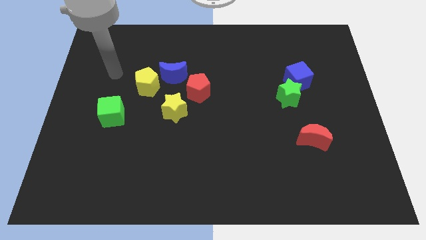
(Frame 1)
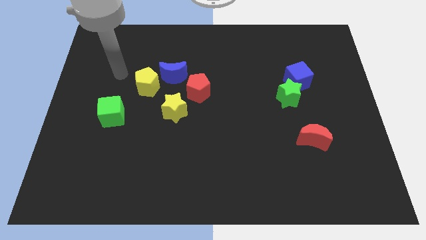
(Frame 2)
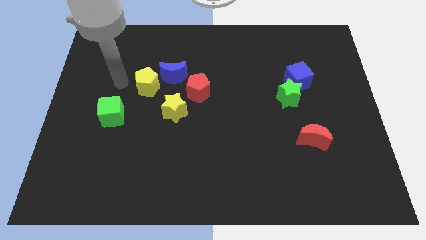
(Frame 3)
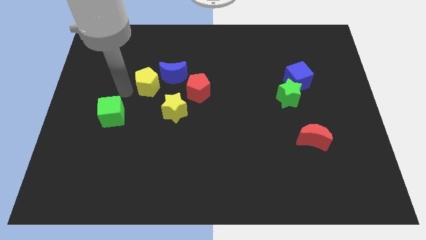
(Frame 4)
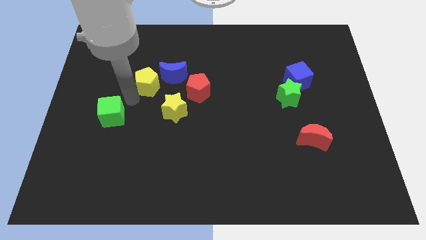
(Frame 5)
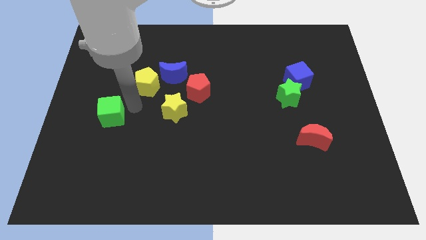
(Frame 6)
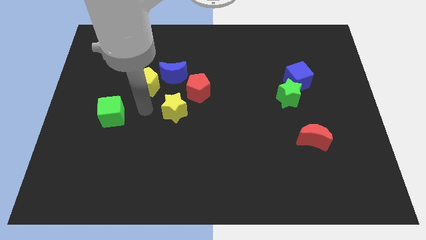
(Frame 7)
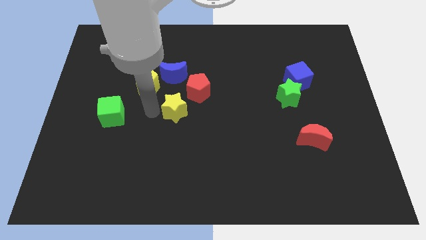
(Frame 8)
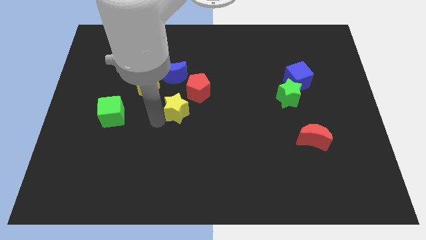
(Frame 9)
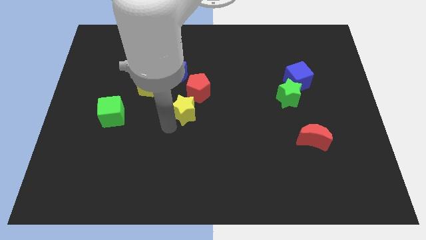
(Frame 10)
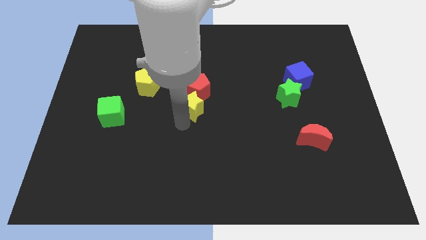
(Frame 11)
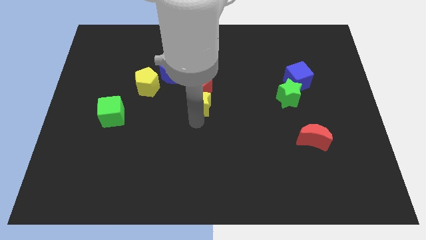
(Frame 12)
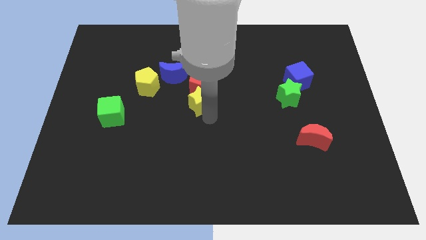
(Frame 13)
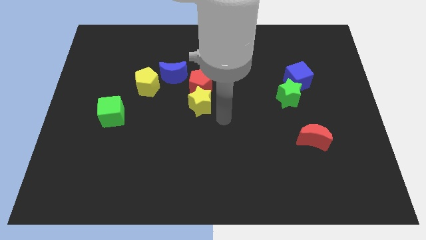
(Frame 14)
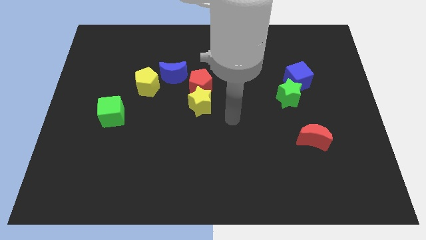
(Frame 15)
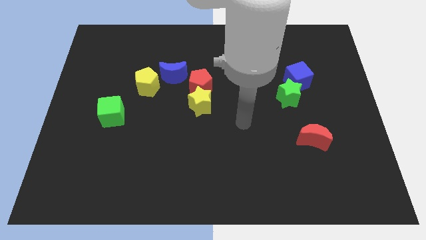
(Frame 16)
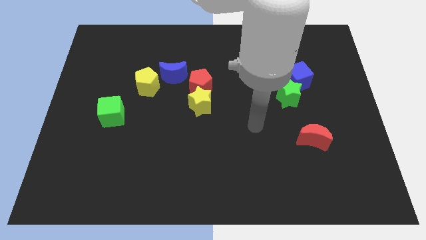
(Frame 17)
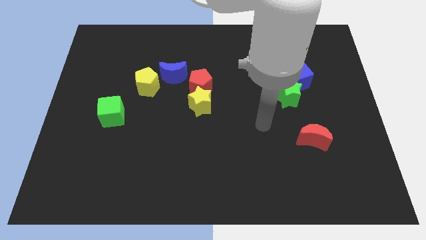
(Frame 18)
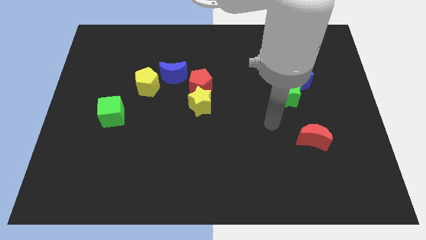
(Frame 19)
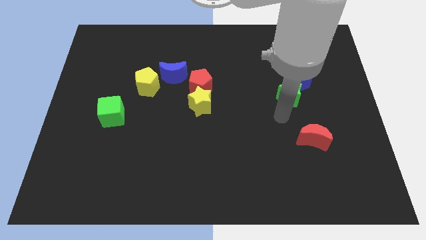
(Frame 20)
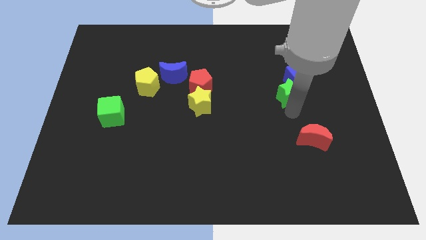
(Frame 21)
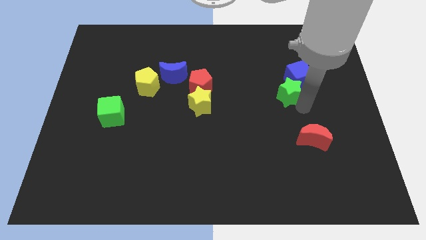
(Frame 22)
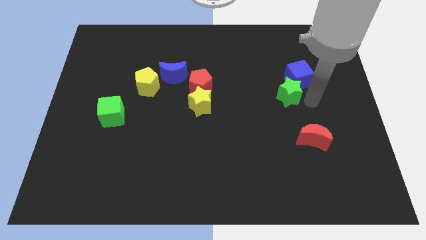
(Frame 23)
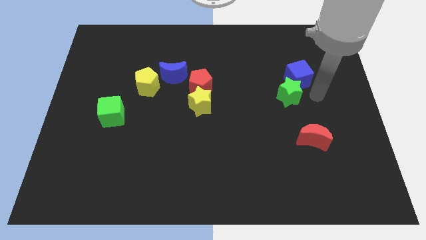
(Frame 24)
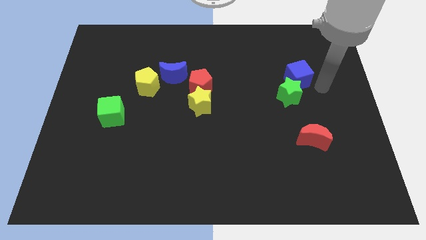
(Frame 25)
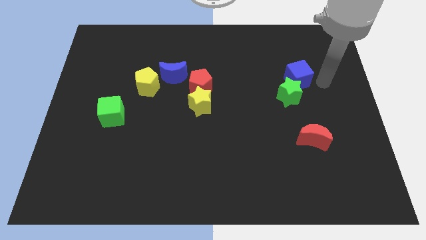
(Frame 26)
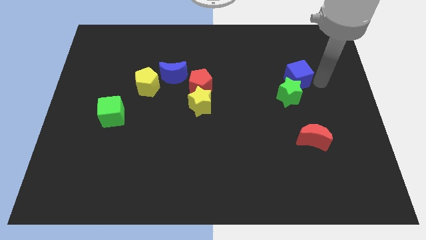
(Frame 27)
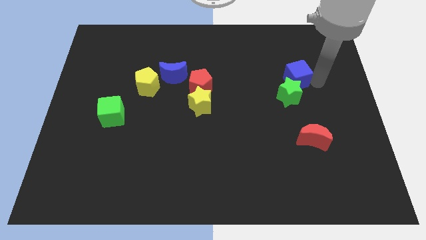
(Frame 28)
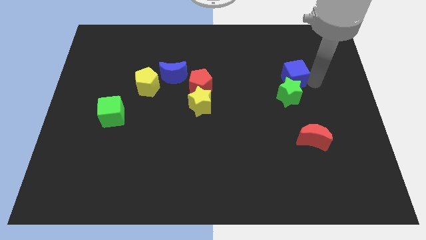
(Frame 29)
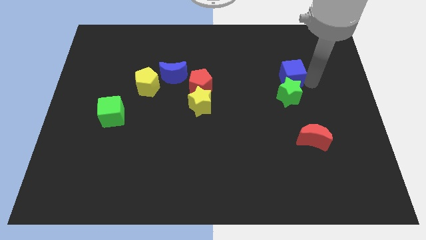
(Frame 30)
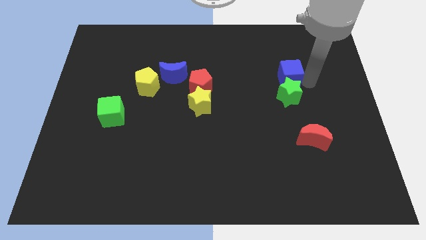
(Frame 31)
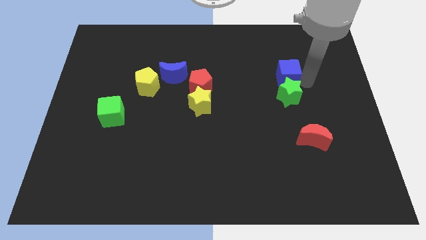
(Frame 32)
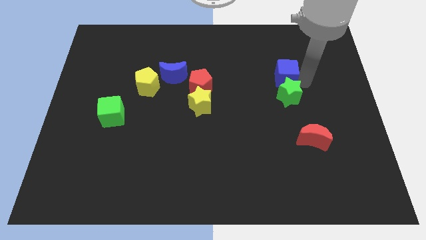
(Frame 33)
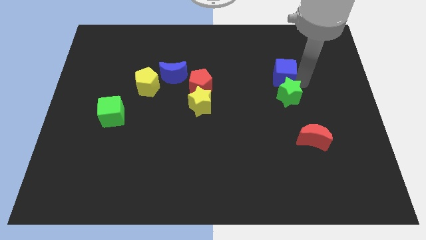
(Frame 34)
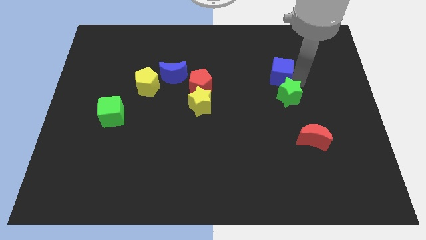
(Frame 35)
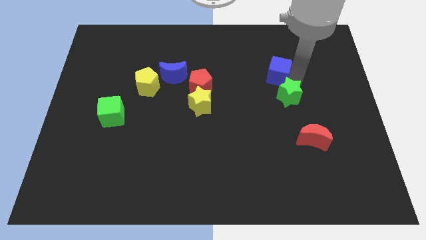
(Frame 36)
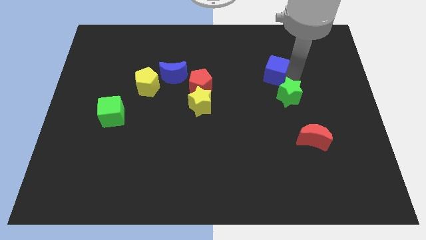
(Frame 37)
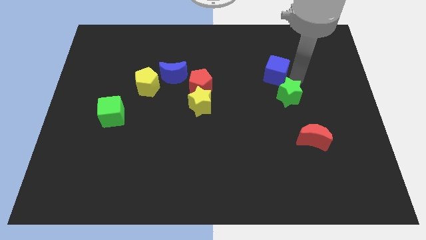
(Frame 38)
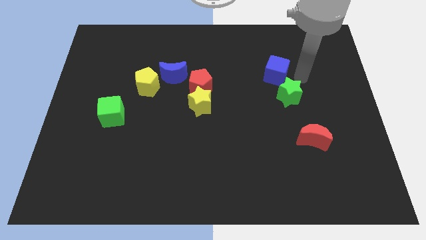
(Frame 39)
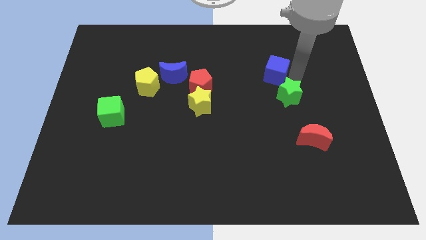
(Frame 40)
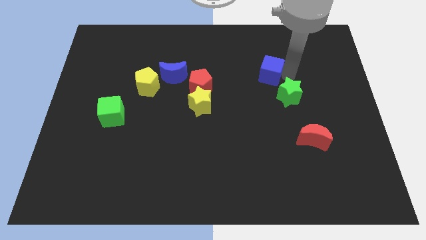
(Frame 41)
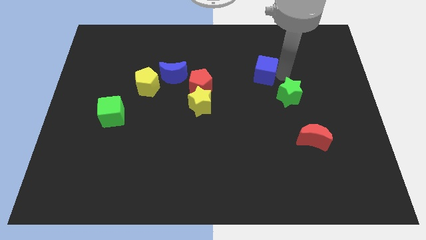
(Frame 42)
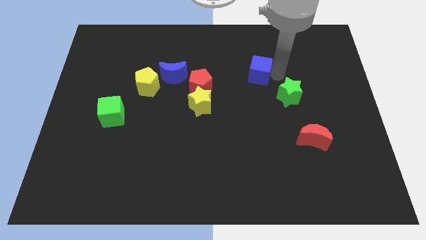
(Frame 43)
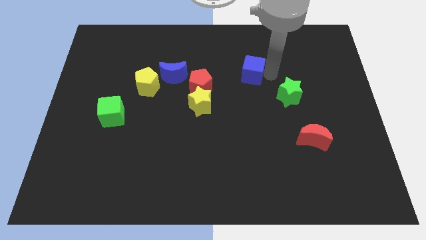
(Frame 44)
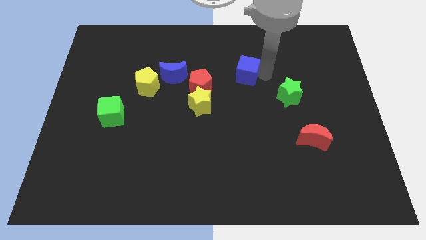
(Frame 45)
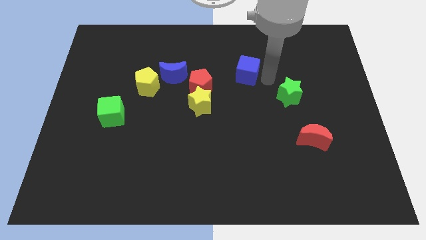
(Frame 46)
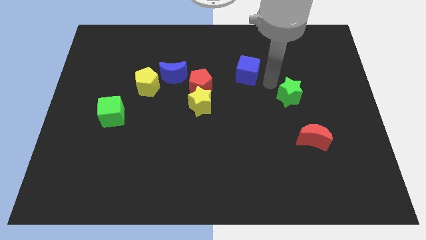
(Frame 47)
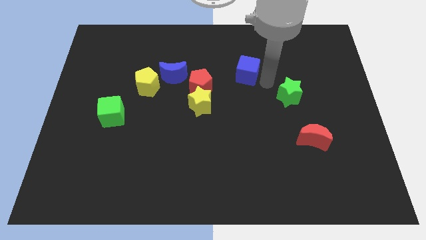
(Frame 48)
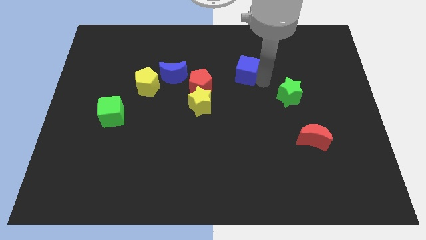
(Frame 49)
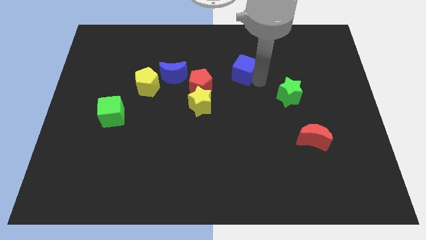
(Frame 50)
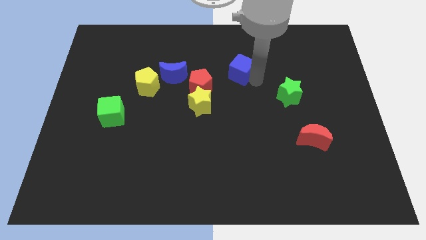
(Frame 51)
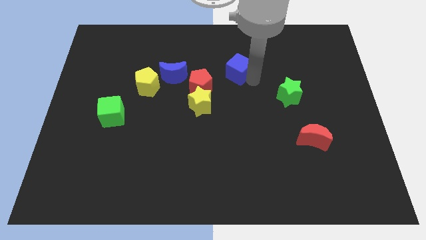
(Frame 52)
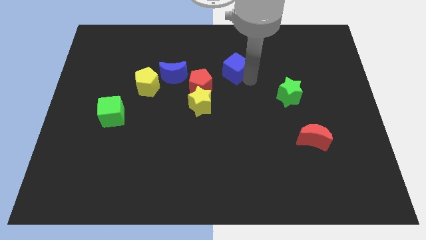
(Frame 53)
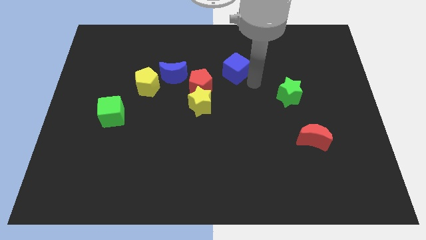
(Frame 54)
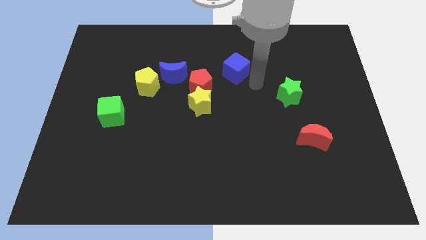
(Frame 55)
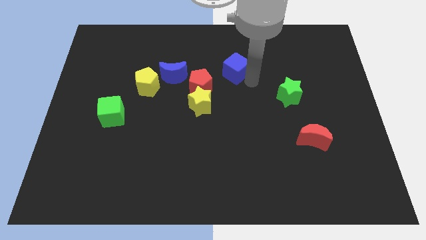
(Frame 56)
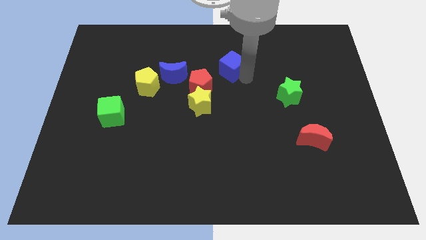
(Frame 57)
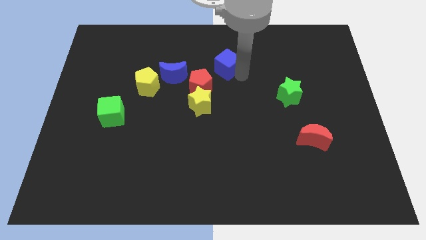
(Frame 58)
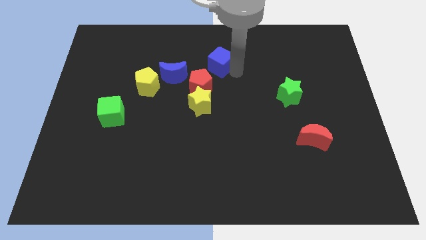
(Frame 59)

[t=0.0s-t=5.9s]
slide the blue cube above the red pentagon
